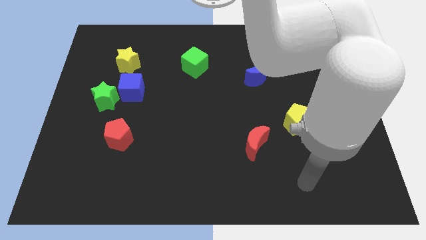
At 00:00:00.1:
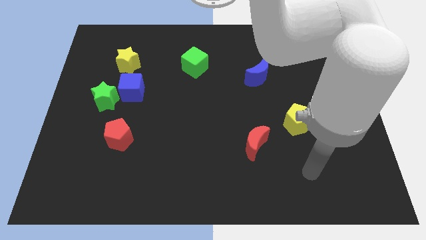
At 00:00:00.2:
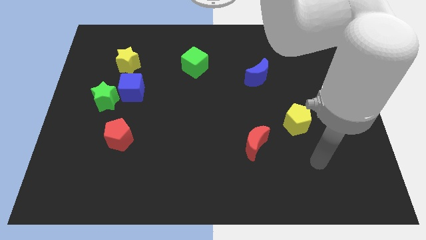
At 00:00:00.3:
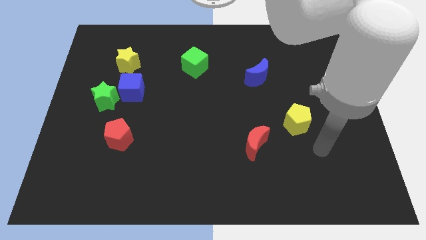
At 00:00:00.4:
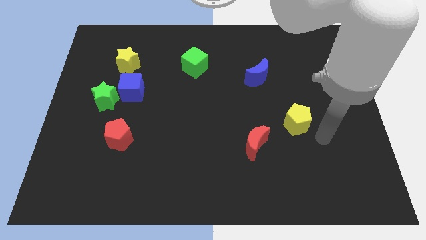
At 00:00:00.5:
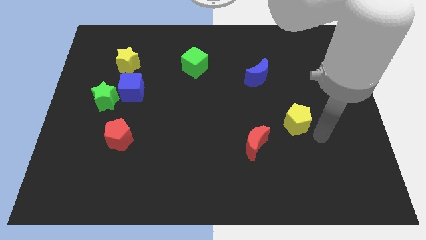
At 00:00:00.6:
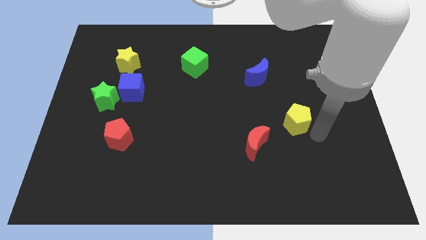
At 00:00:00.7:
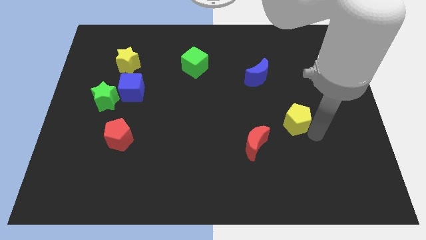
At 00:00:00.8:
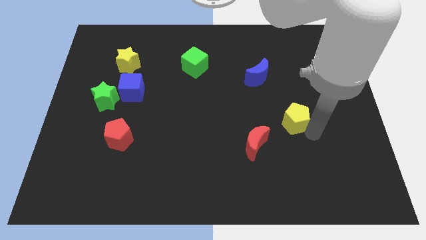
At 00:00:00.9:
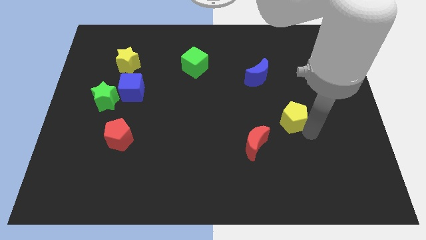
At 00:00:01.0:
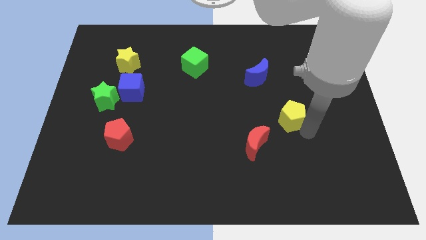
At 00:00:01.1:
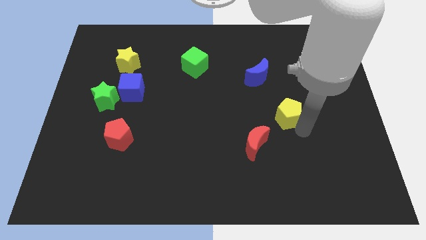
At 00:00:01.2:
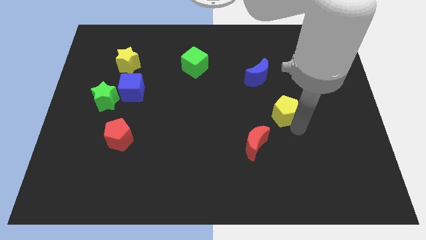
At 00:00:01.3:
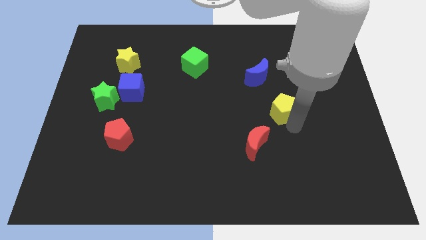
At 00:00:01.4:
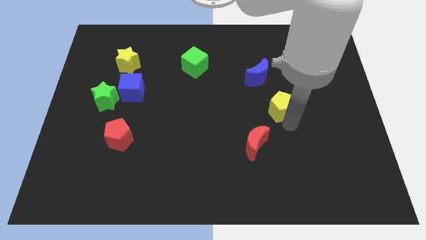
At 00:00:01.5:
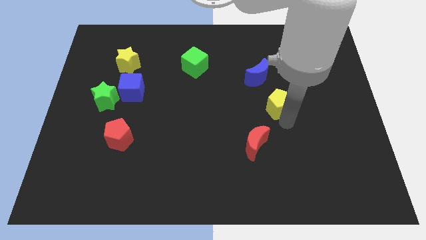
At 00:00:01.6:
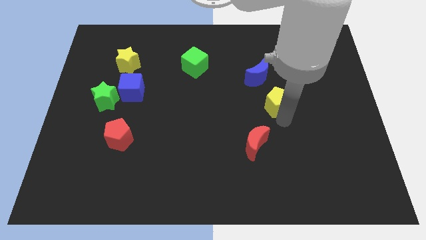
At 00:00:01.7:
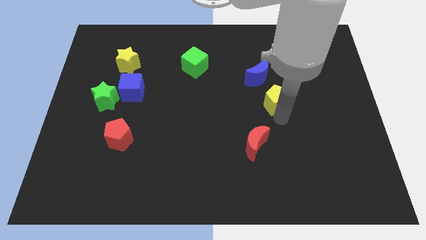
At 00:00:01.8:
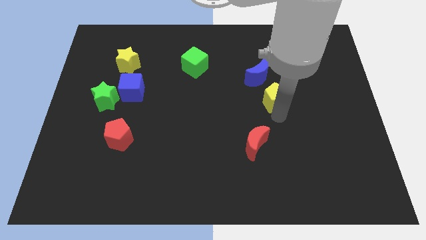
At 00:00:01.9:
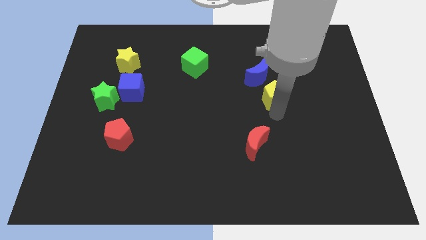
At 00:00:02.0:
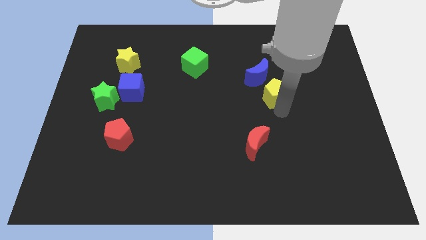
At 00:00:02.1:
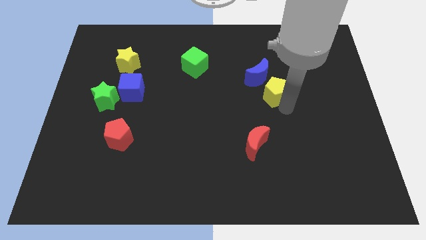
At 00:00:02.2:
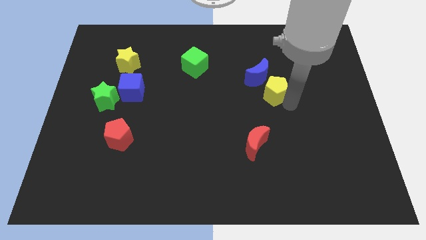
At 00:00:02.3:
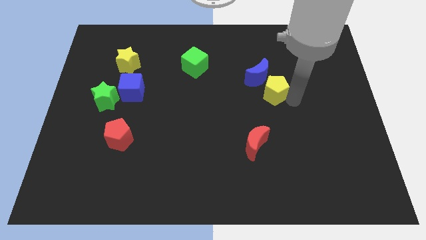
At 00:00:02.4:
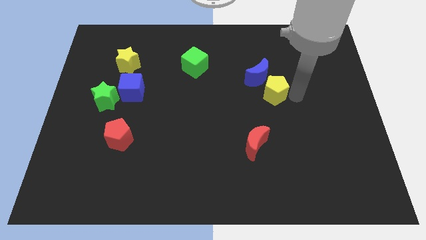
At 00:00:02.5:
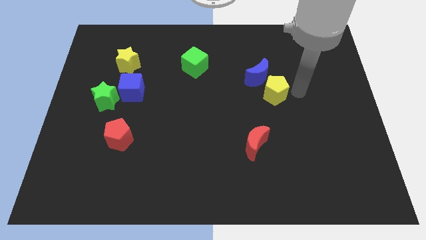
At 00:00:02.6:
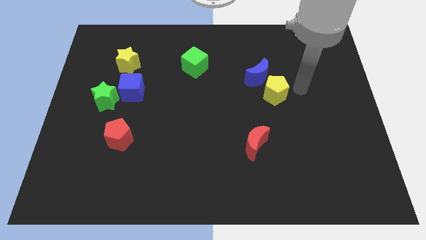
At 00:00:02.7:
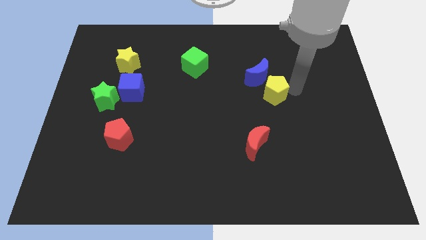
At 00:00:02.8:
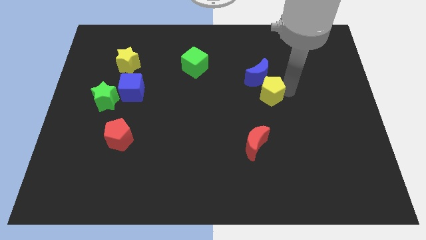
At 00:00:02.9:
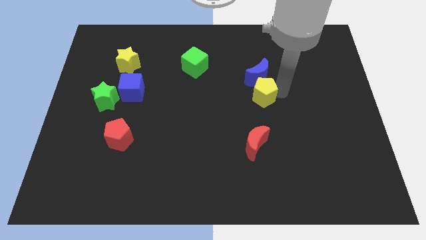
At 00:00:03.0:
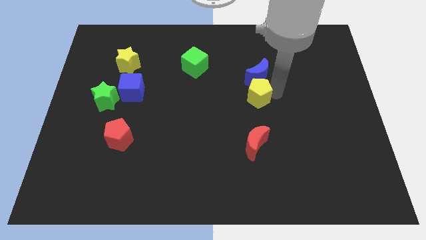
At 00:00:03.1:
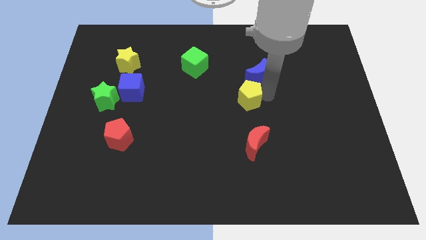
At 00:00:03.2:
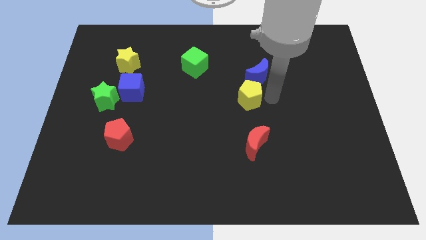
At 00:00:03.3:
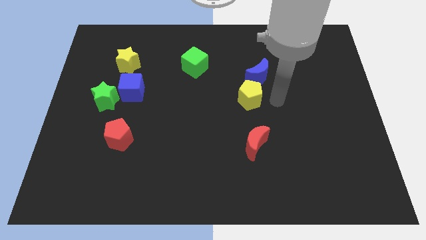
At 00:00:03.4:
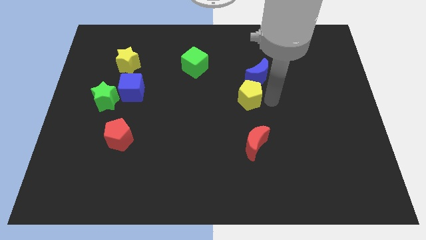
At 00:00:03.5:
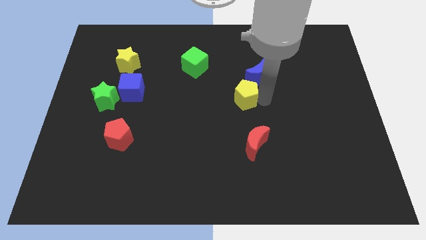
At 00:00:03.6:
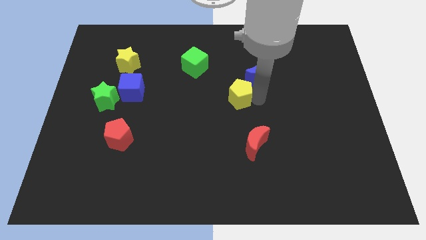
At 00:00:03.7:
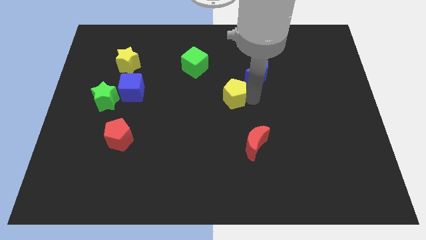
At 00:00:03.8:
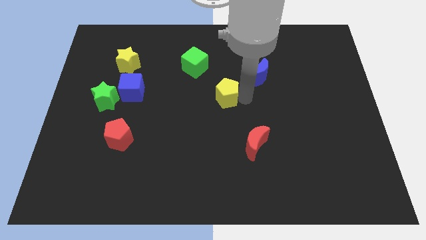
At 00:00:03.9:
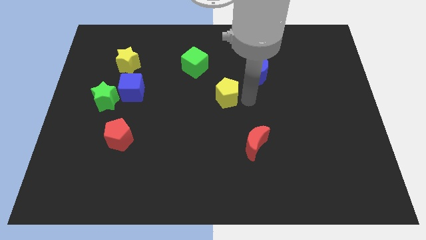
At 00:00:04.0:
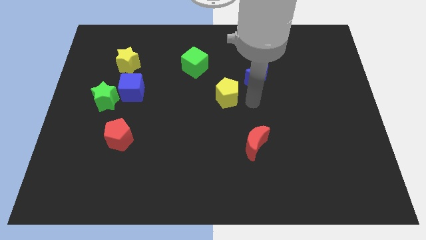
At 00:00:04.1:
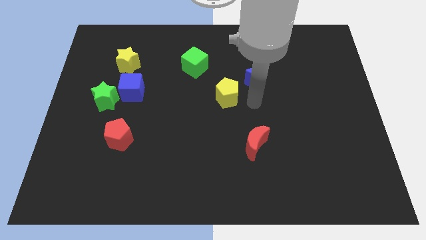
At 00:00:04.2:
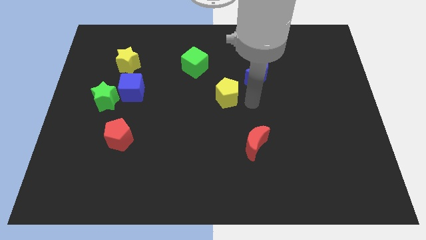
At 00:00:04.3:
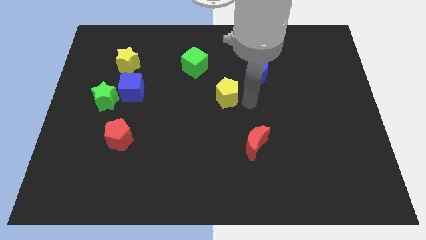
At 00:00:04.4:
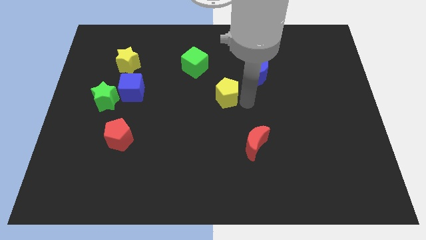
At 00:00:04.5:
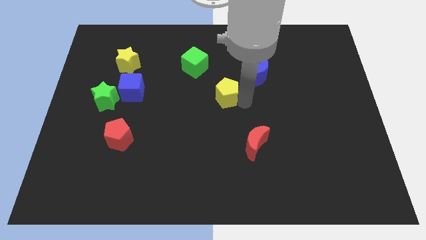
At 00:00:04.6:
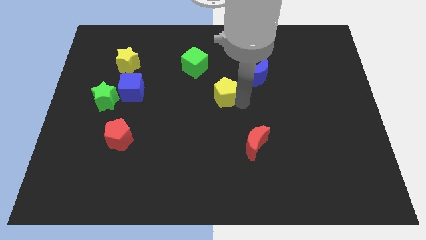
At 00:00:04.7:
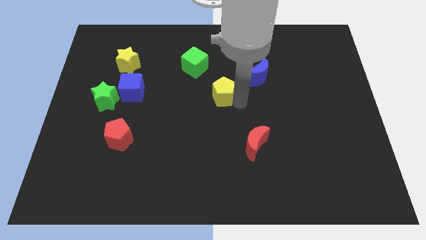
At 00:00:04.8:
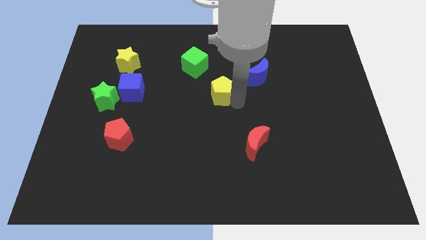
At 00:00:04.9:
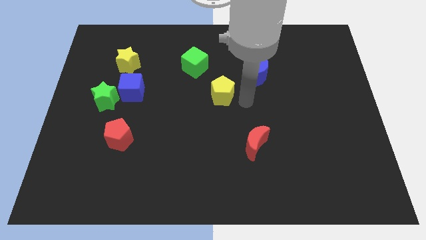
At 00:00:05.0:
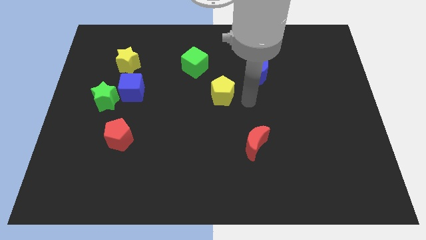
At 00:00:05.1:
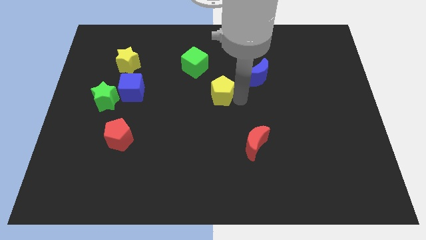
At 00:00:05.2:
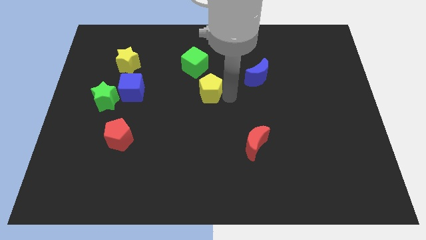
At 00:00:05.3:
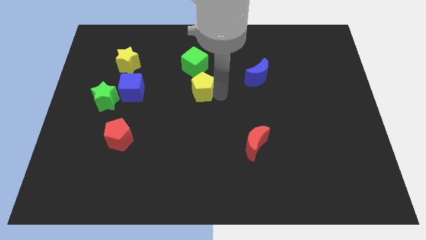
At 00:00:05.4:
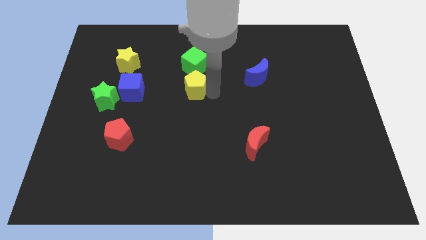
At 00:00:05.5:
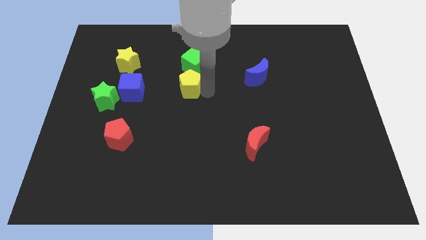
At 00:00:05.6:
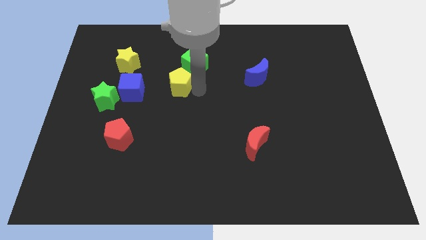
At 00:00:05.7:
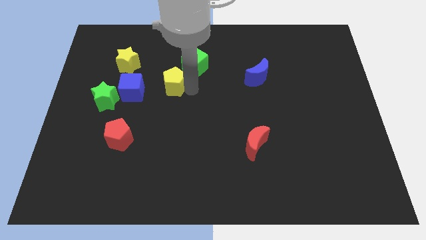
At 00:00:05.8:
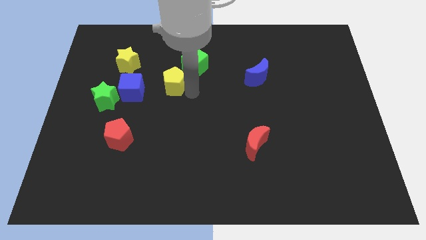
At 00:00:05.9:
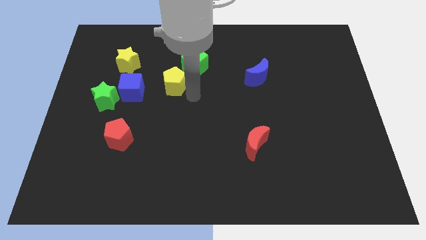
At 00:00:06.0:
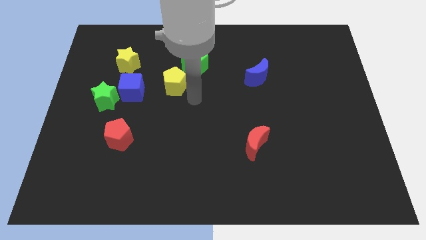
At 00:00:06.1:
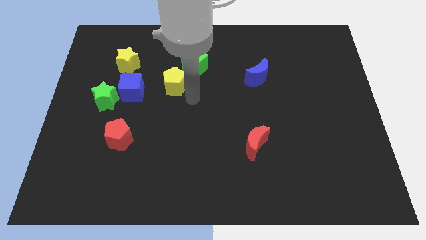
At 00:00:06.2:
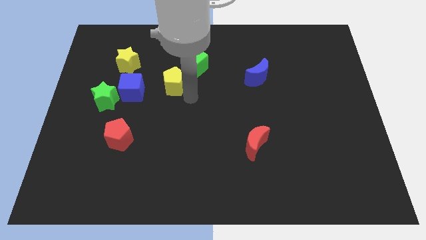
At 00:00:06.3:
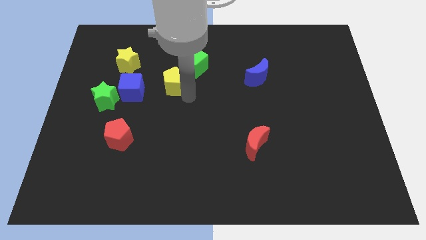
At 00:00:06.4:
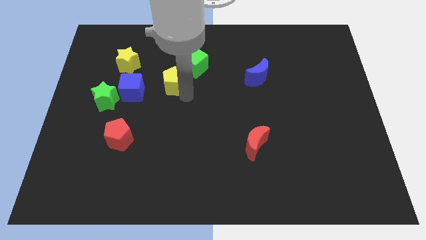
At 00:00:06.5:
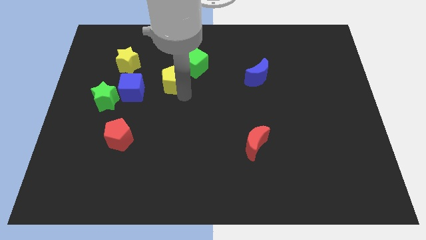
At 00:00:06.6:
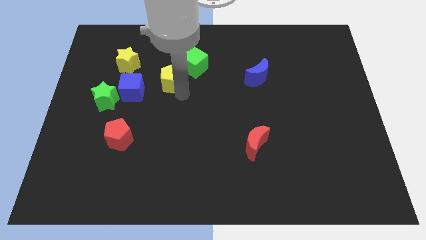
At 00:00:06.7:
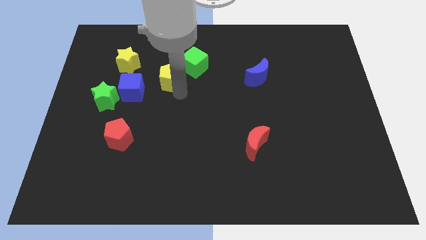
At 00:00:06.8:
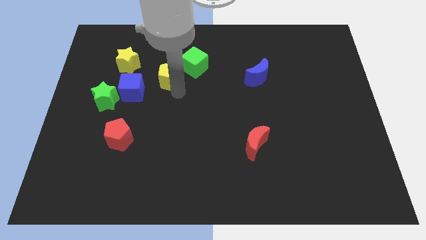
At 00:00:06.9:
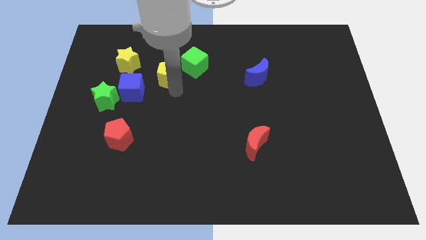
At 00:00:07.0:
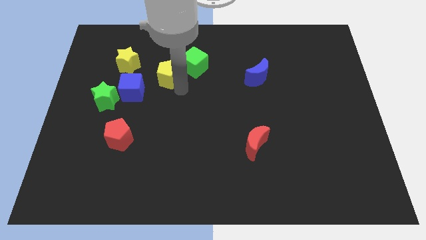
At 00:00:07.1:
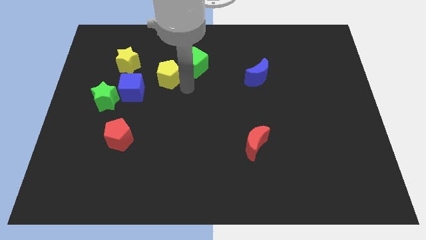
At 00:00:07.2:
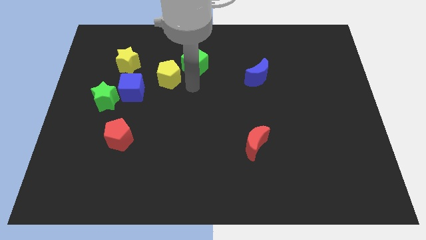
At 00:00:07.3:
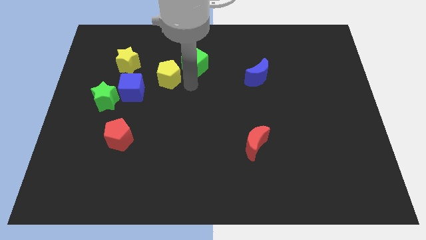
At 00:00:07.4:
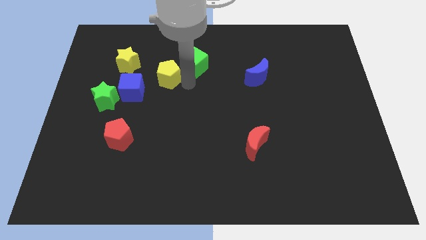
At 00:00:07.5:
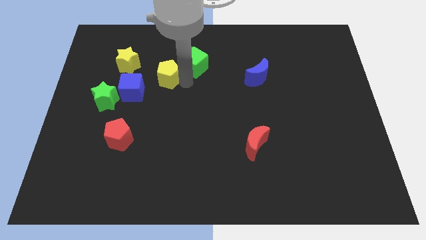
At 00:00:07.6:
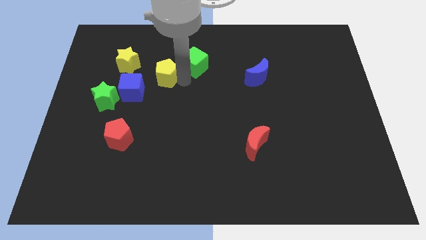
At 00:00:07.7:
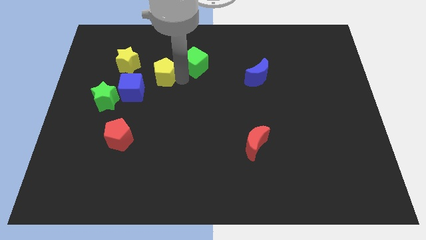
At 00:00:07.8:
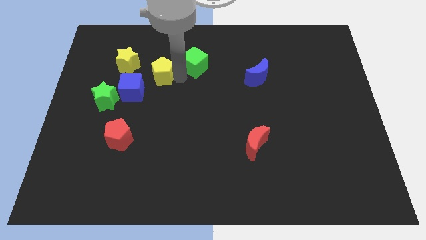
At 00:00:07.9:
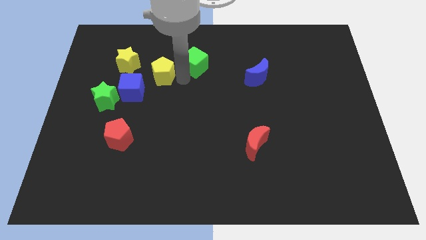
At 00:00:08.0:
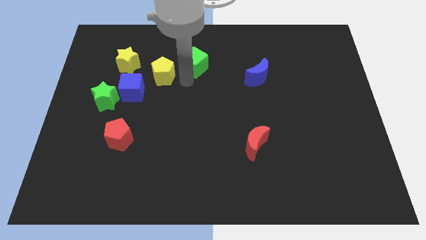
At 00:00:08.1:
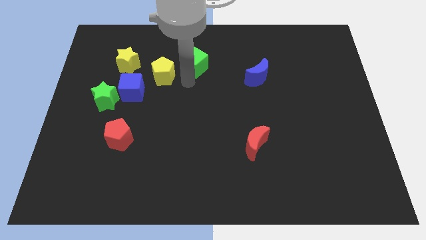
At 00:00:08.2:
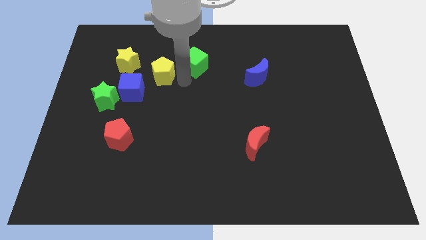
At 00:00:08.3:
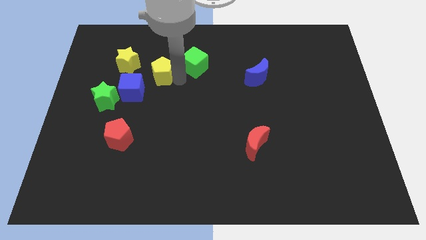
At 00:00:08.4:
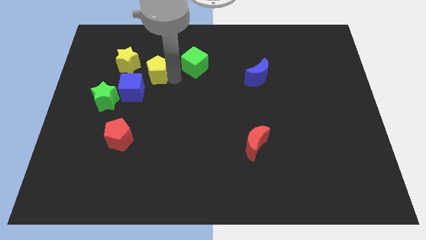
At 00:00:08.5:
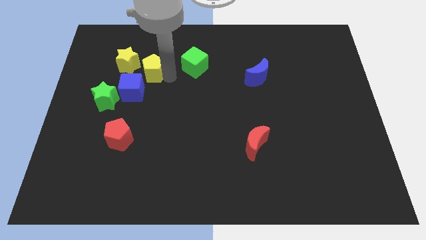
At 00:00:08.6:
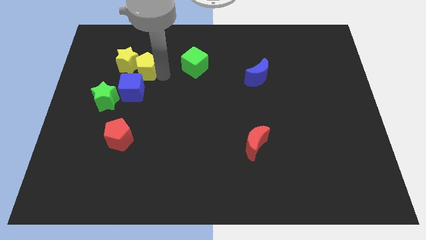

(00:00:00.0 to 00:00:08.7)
slide the yellow pentagon close to the yellow star
